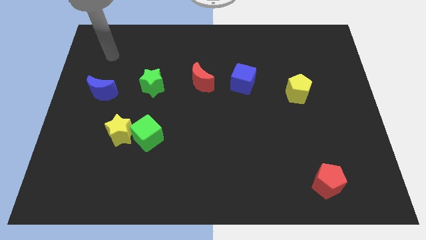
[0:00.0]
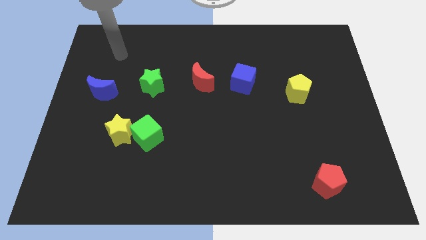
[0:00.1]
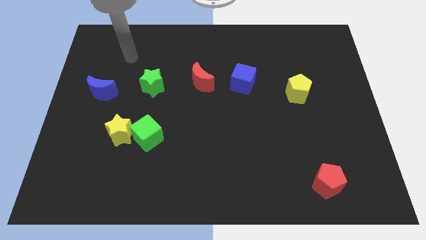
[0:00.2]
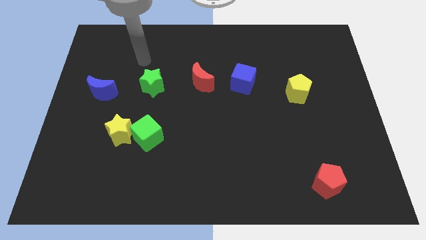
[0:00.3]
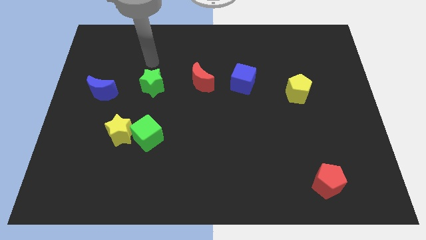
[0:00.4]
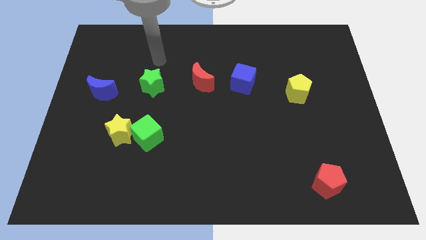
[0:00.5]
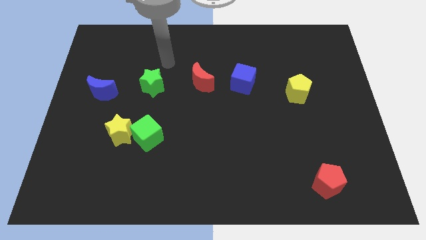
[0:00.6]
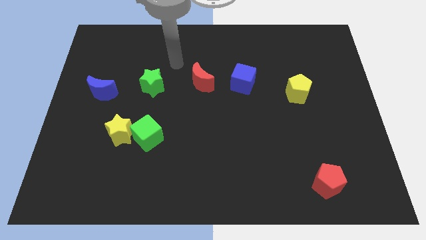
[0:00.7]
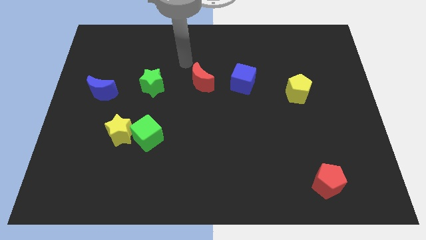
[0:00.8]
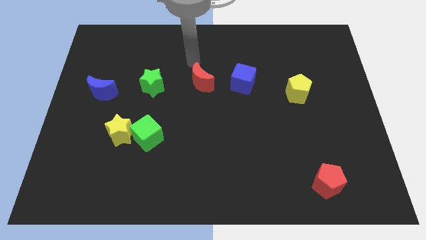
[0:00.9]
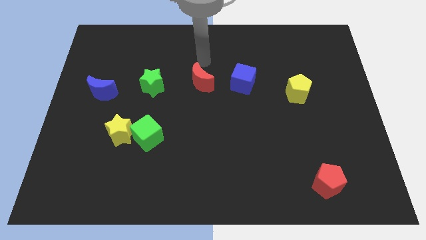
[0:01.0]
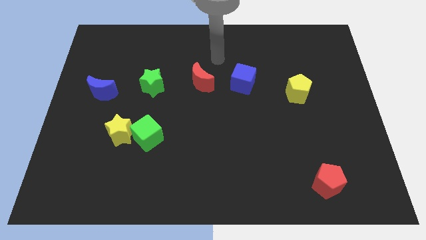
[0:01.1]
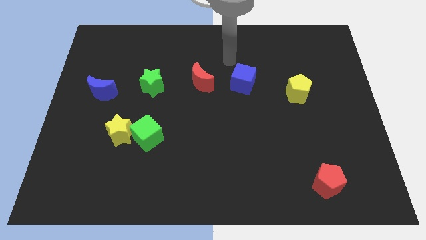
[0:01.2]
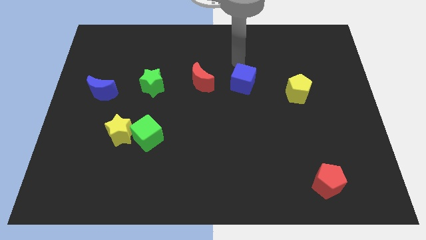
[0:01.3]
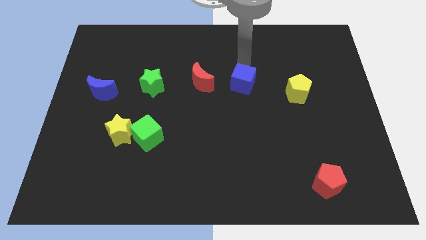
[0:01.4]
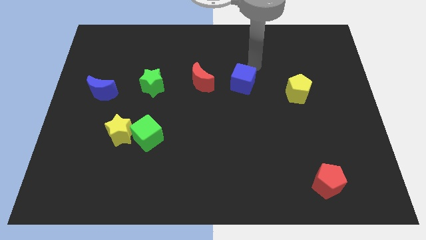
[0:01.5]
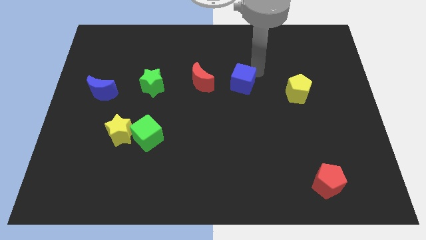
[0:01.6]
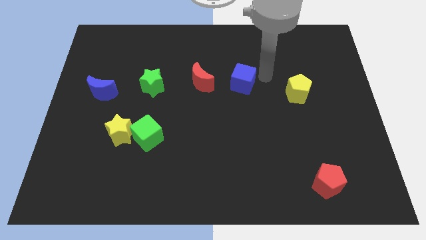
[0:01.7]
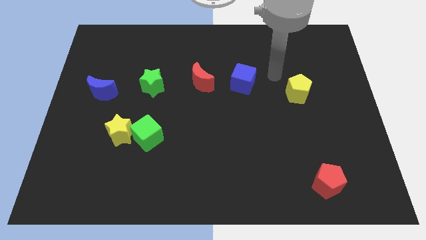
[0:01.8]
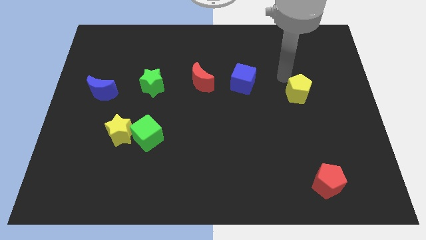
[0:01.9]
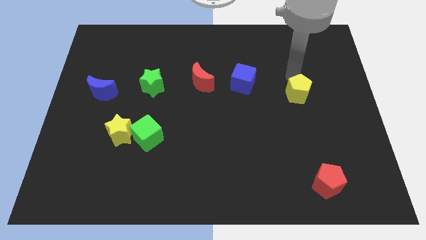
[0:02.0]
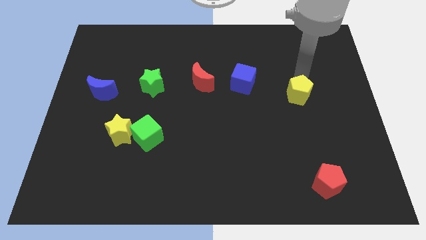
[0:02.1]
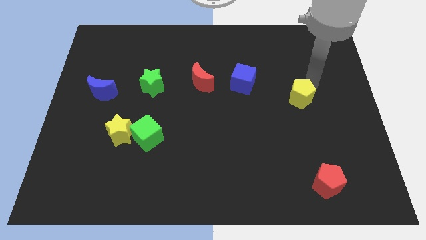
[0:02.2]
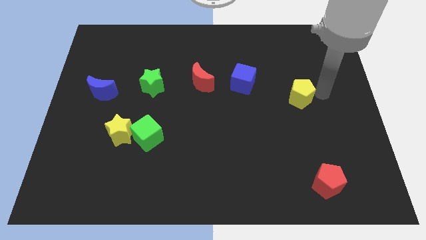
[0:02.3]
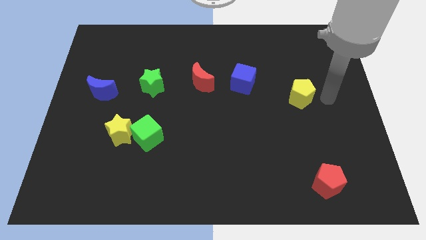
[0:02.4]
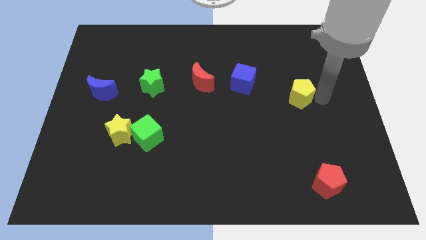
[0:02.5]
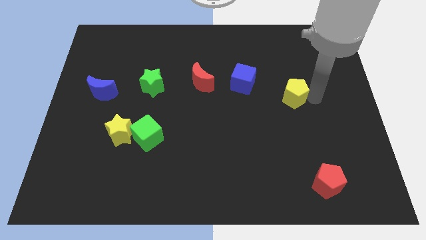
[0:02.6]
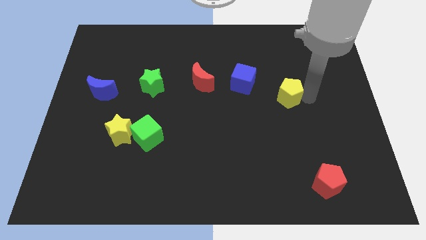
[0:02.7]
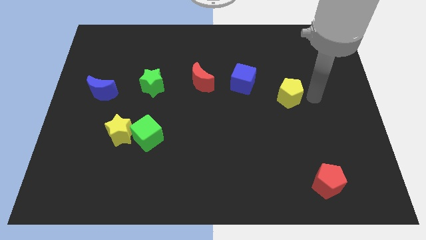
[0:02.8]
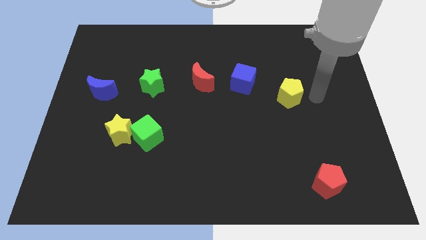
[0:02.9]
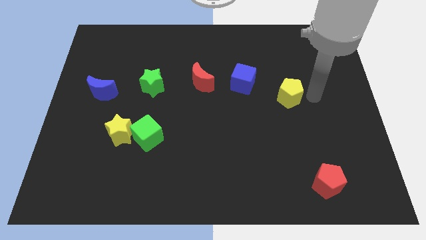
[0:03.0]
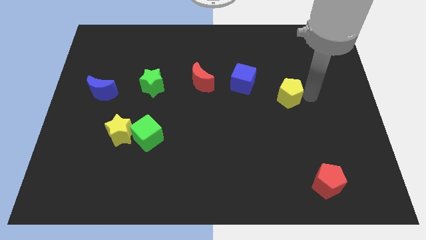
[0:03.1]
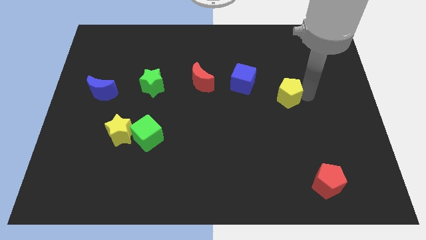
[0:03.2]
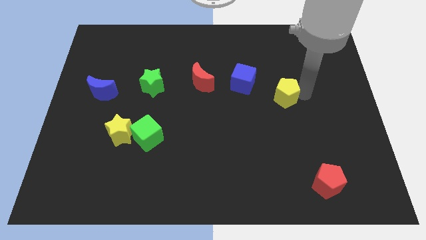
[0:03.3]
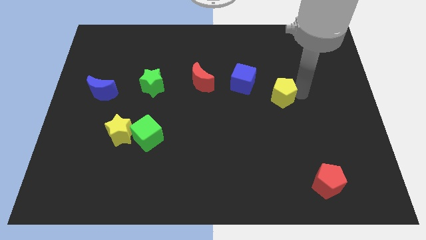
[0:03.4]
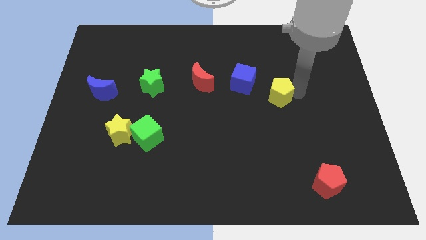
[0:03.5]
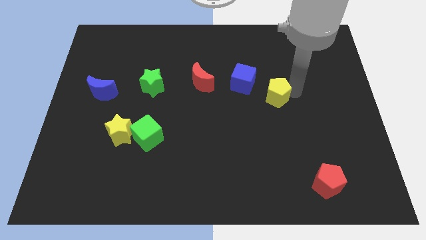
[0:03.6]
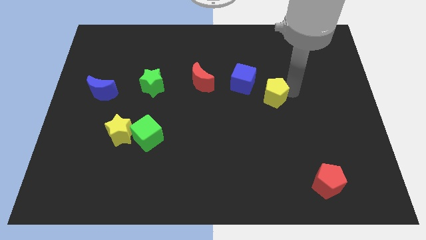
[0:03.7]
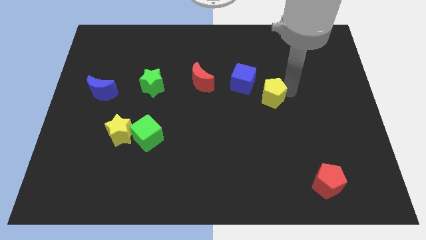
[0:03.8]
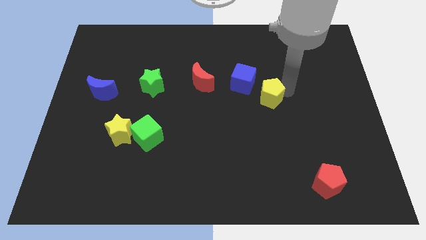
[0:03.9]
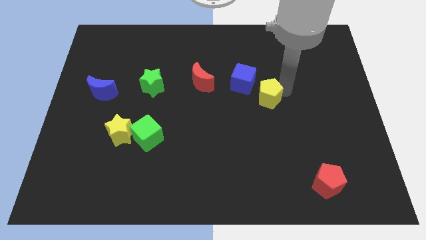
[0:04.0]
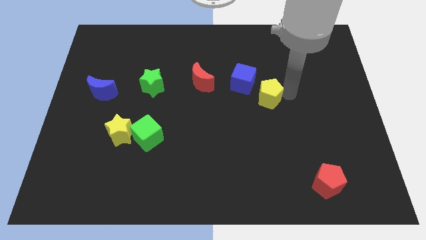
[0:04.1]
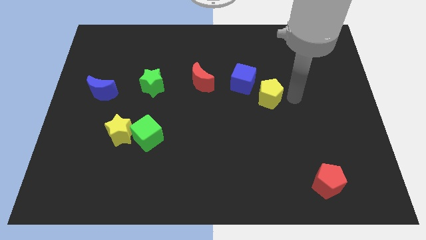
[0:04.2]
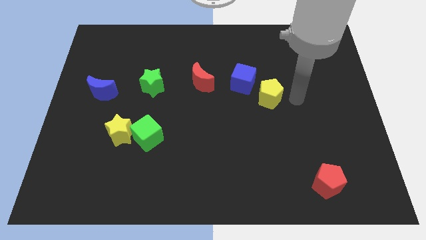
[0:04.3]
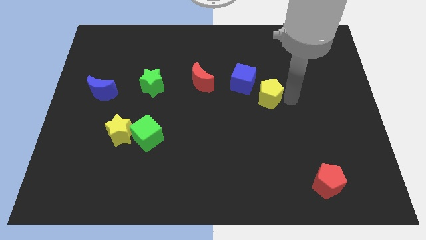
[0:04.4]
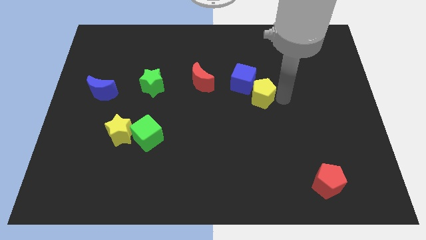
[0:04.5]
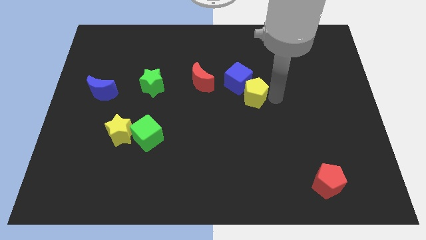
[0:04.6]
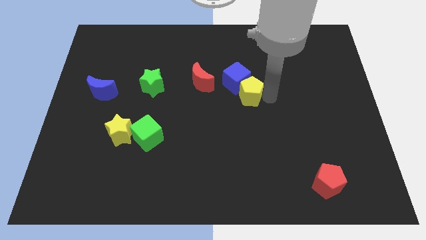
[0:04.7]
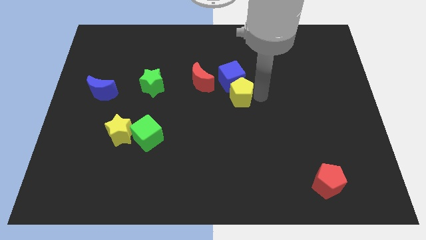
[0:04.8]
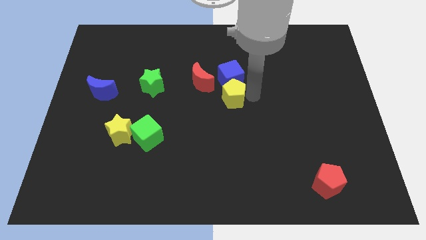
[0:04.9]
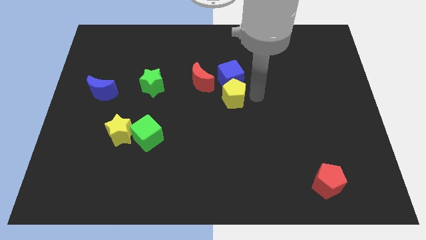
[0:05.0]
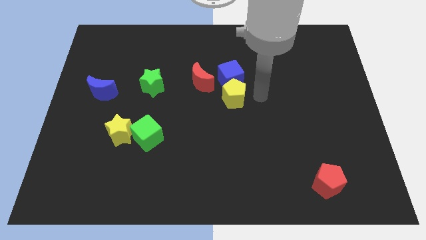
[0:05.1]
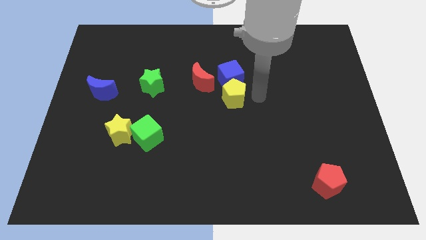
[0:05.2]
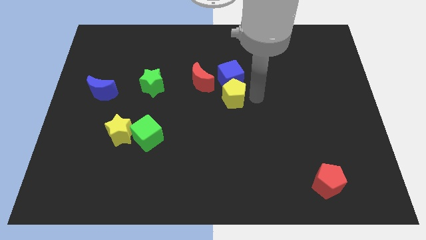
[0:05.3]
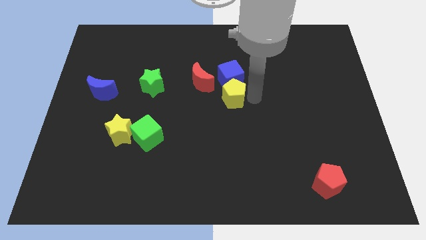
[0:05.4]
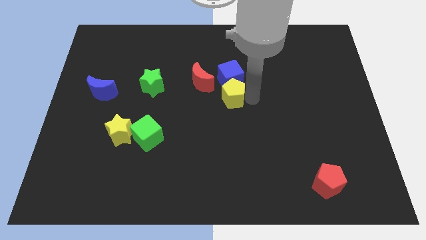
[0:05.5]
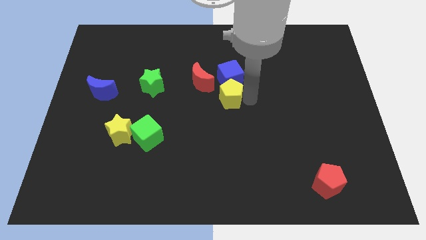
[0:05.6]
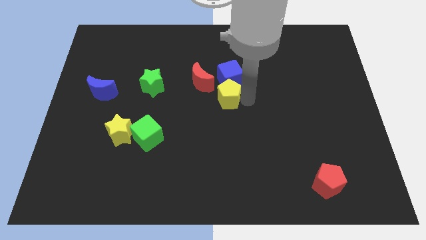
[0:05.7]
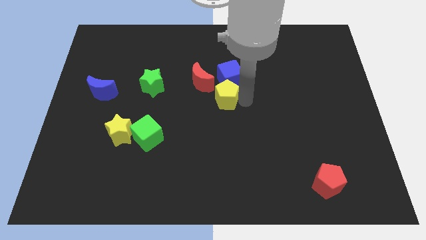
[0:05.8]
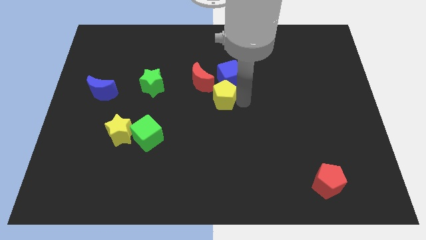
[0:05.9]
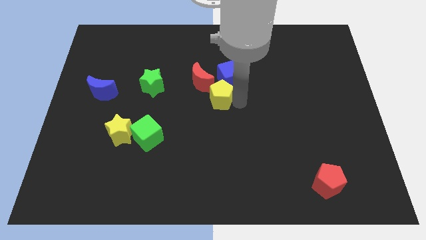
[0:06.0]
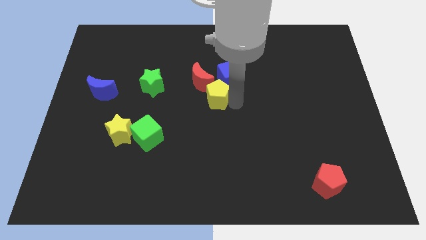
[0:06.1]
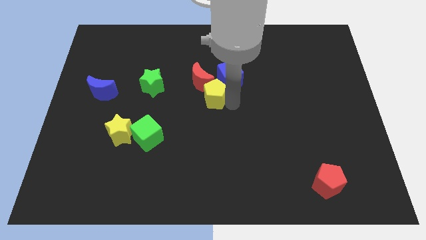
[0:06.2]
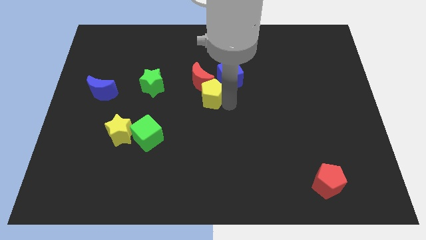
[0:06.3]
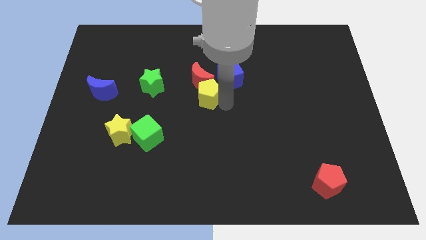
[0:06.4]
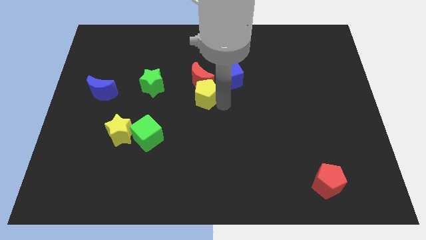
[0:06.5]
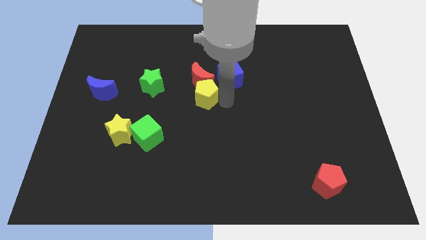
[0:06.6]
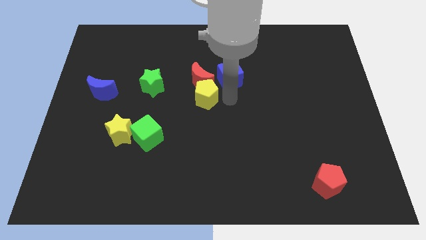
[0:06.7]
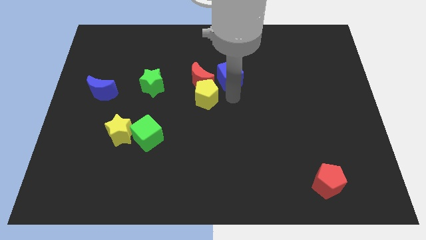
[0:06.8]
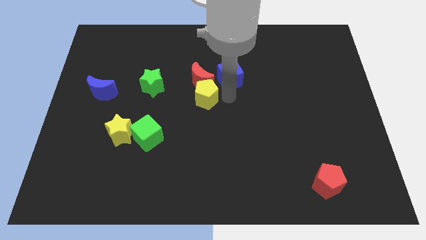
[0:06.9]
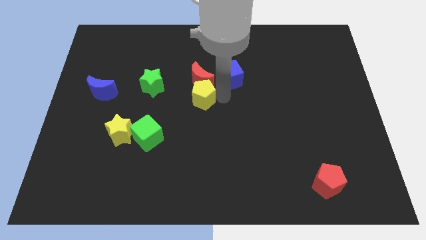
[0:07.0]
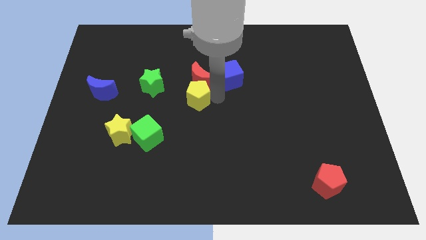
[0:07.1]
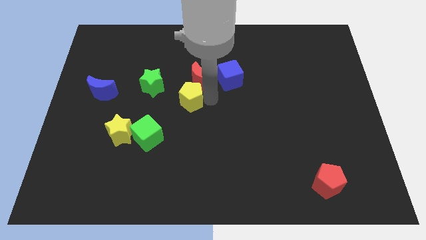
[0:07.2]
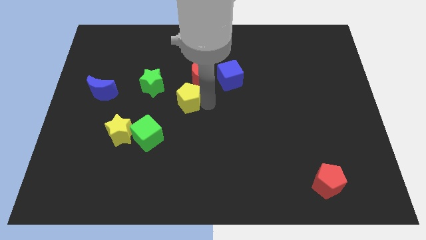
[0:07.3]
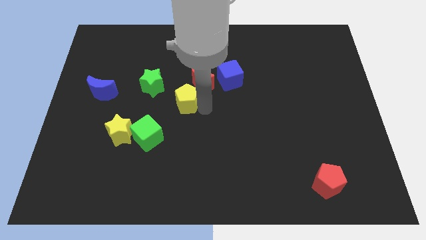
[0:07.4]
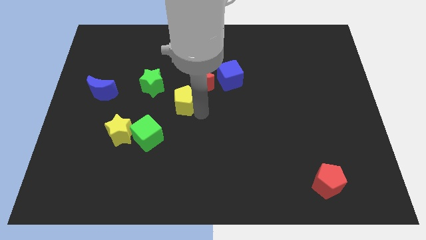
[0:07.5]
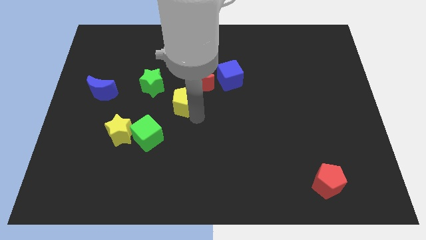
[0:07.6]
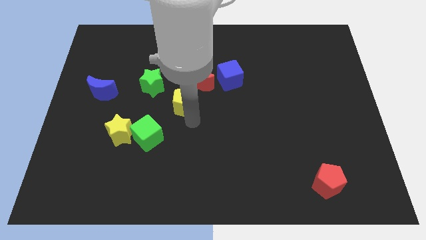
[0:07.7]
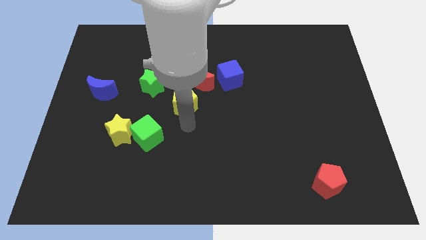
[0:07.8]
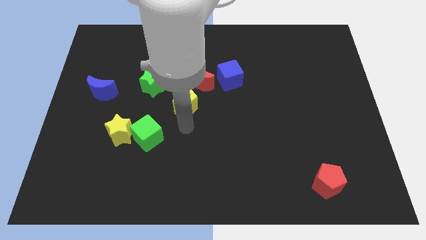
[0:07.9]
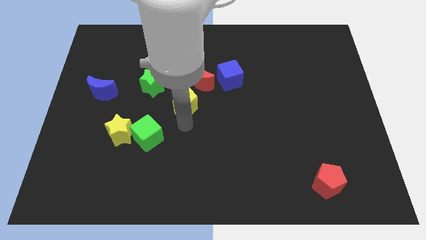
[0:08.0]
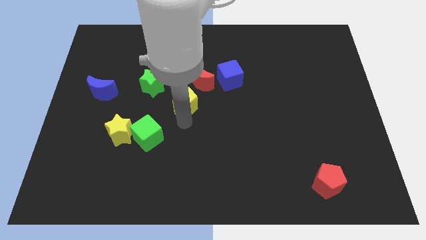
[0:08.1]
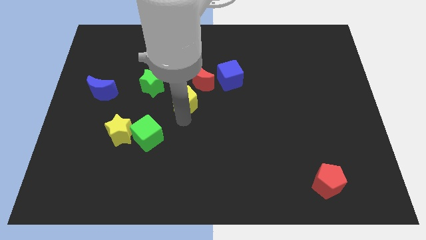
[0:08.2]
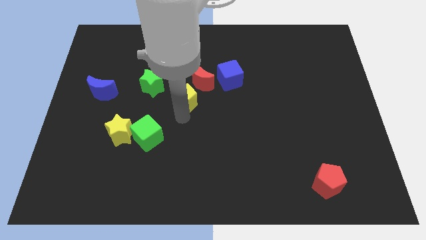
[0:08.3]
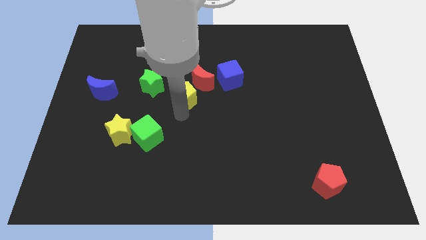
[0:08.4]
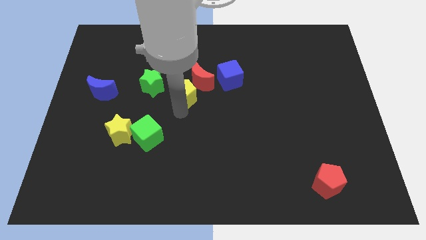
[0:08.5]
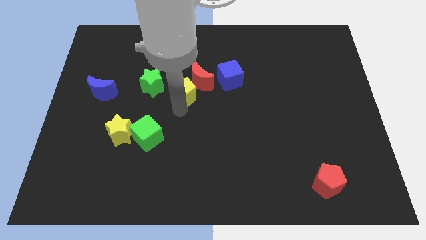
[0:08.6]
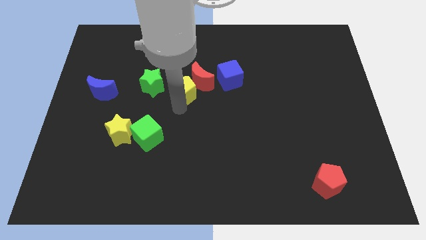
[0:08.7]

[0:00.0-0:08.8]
move the yellow pentagon just left of the blue cube
